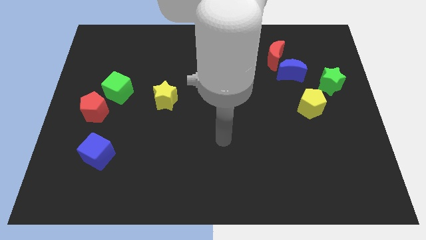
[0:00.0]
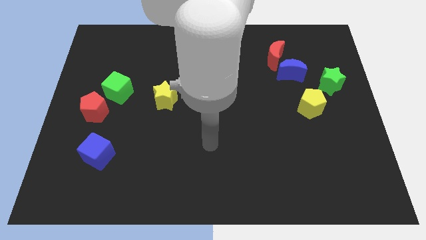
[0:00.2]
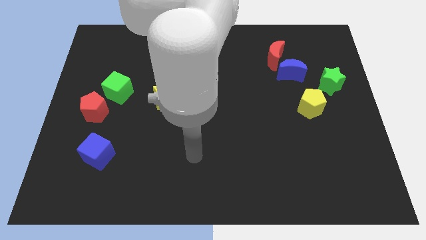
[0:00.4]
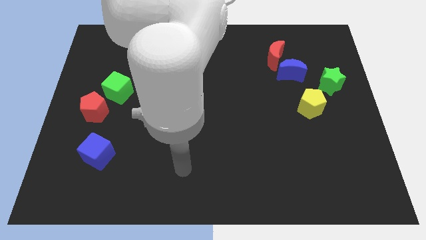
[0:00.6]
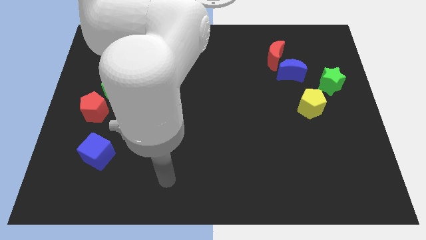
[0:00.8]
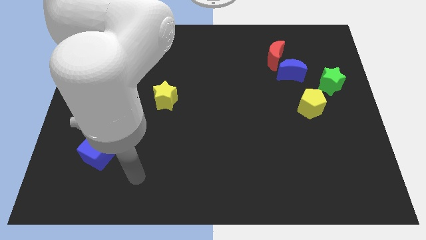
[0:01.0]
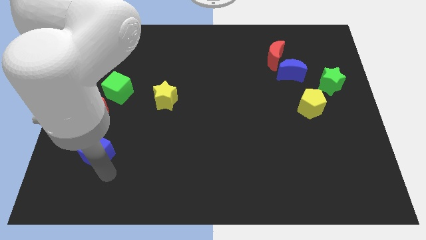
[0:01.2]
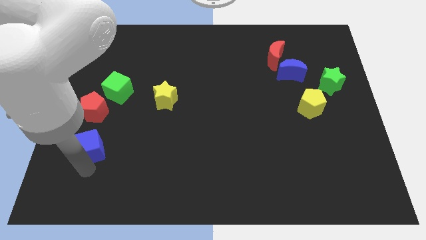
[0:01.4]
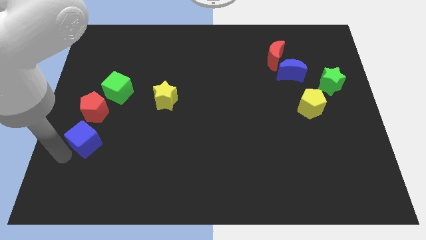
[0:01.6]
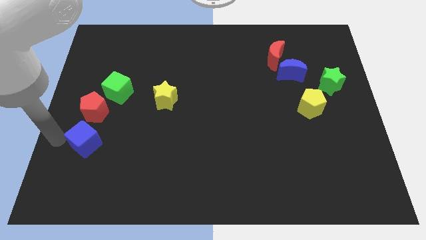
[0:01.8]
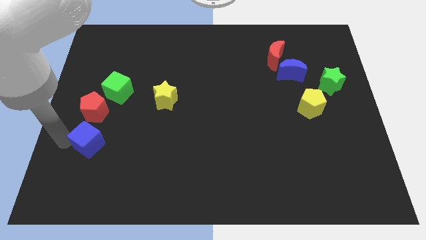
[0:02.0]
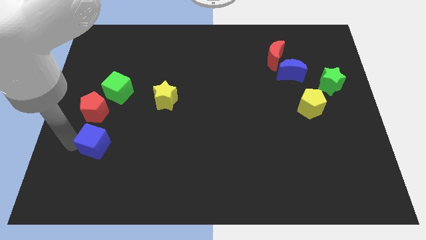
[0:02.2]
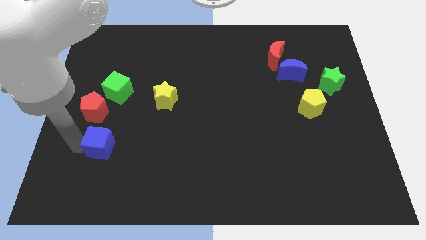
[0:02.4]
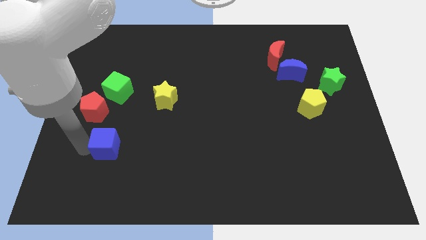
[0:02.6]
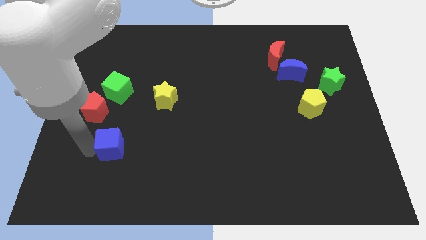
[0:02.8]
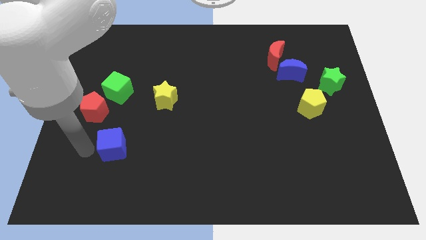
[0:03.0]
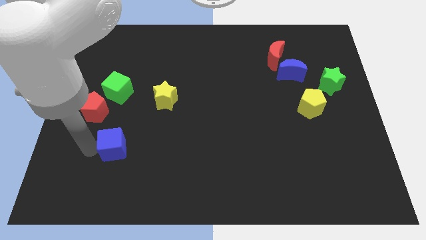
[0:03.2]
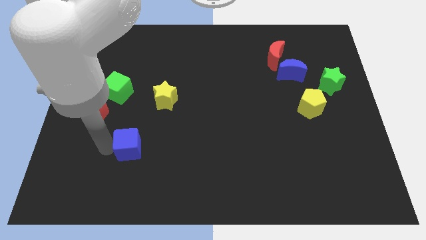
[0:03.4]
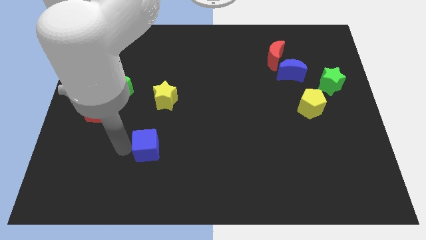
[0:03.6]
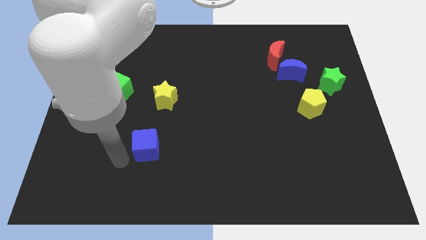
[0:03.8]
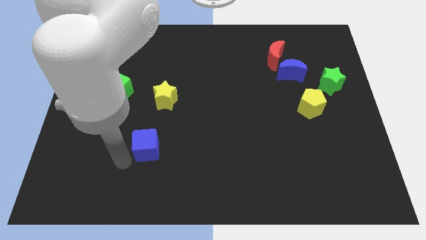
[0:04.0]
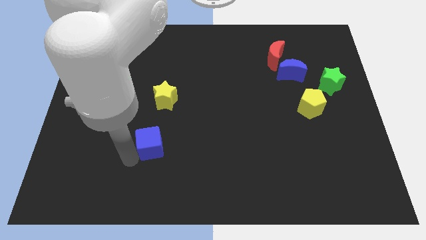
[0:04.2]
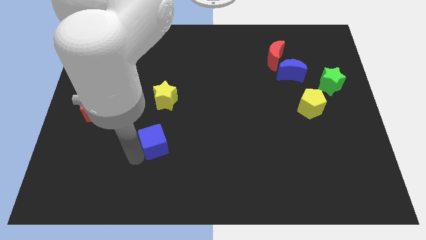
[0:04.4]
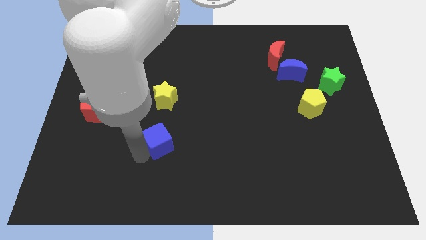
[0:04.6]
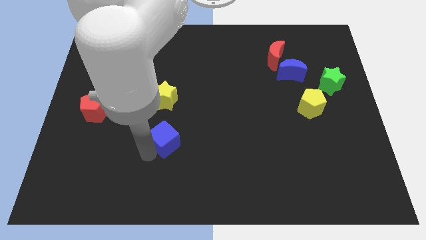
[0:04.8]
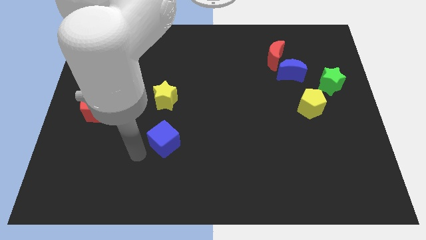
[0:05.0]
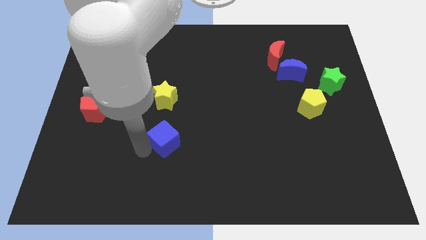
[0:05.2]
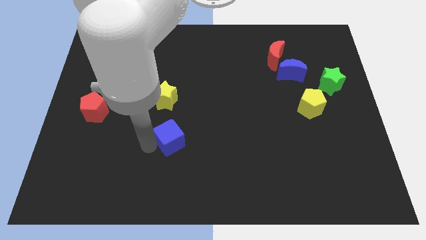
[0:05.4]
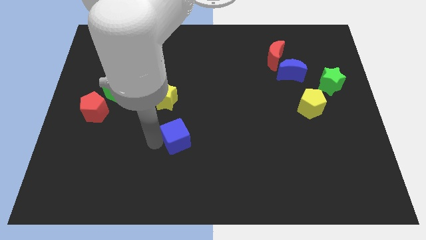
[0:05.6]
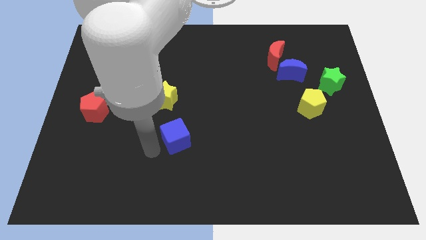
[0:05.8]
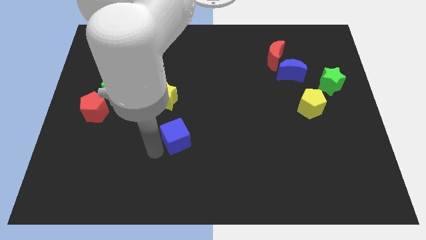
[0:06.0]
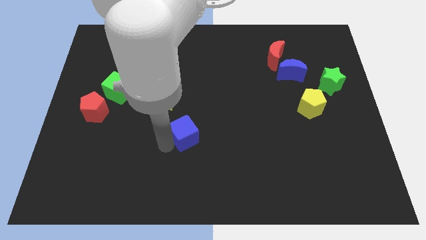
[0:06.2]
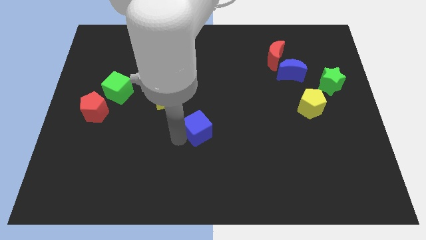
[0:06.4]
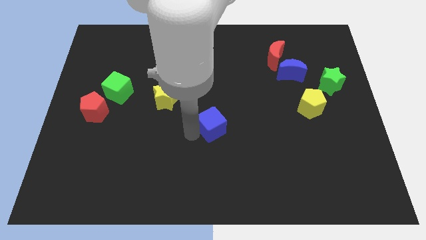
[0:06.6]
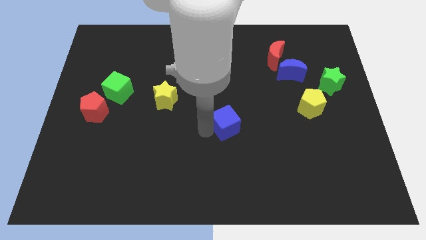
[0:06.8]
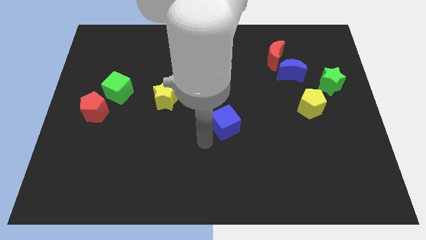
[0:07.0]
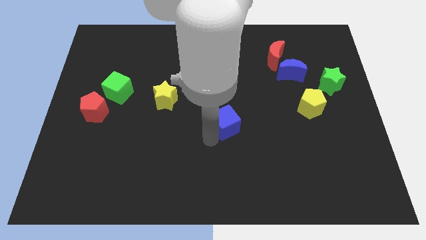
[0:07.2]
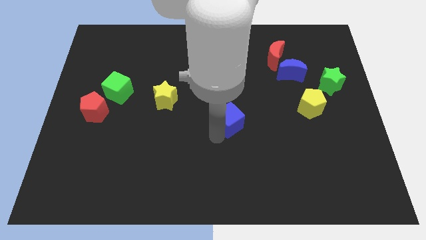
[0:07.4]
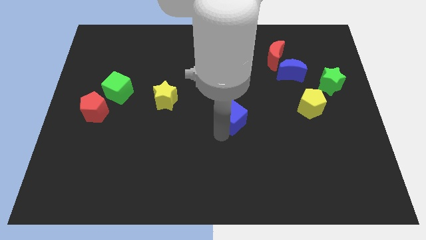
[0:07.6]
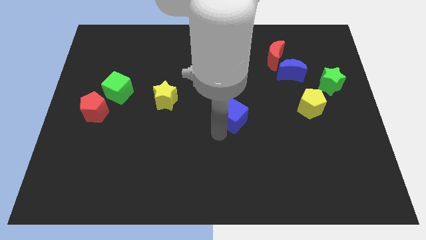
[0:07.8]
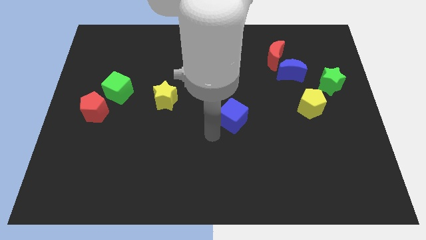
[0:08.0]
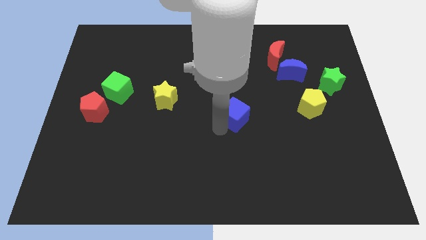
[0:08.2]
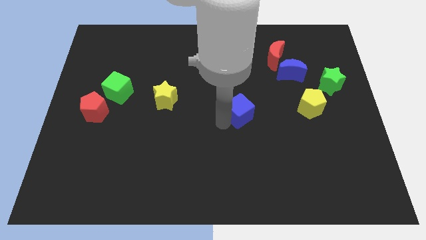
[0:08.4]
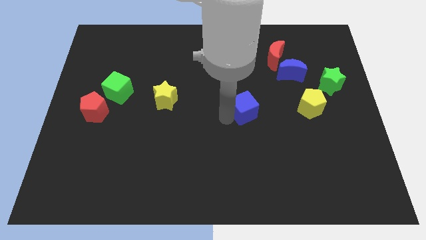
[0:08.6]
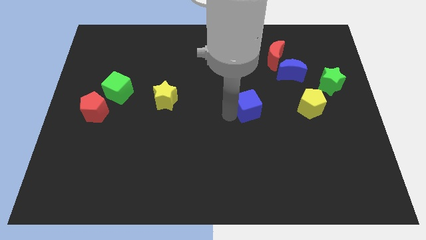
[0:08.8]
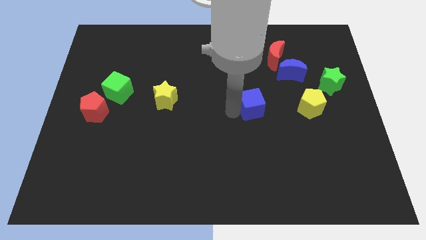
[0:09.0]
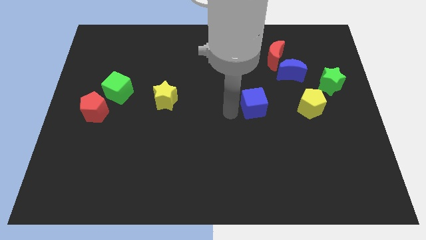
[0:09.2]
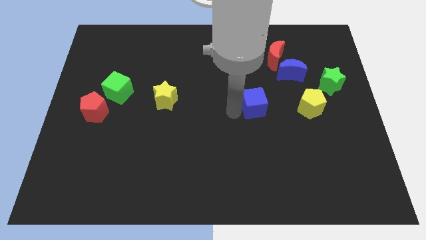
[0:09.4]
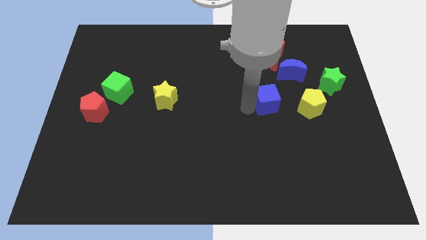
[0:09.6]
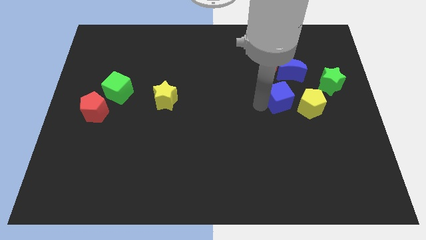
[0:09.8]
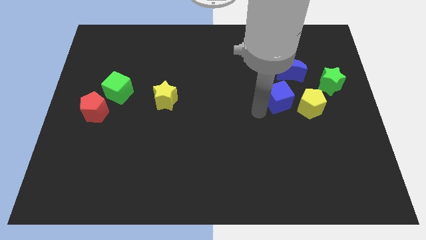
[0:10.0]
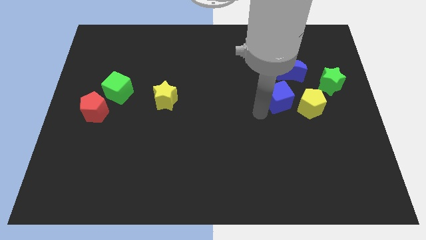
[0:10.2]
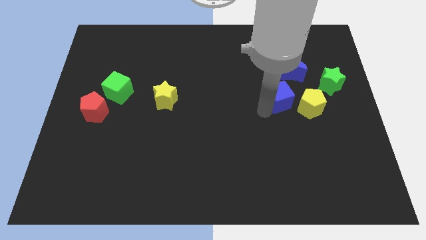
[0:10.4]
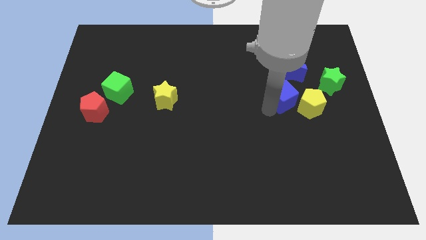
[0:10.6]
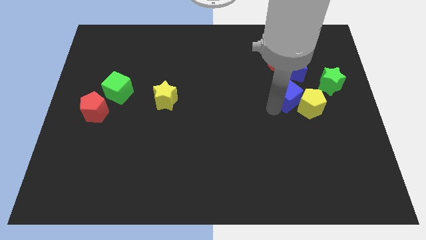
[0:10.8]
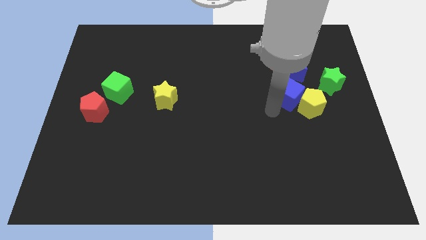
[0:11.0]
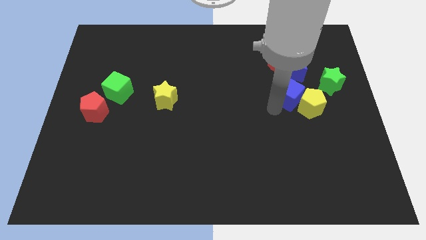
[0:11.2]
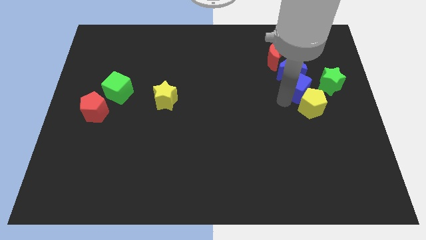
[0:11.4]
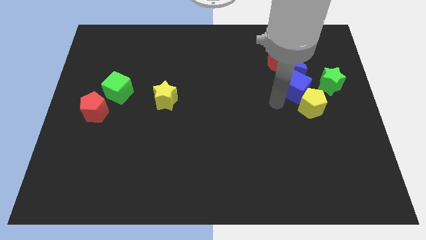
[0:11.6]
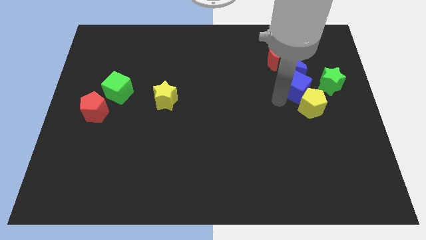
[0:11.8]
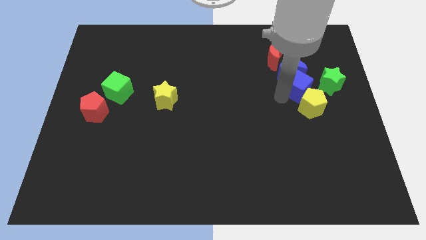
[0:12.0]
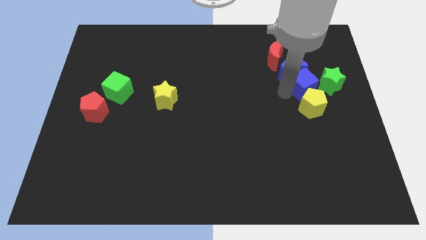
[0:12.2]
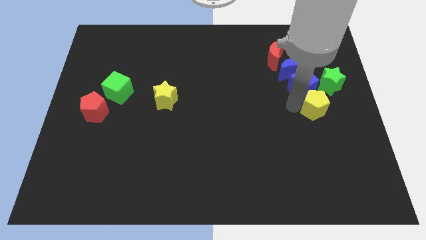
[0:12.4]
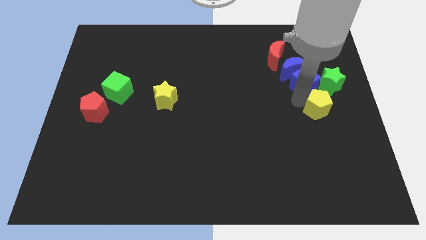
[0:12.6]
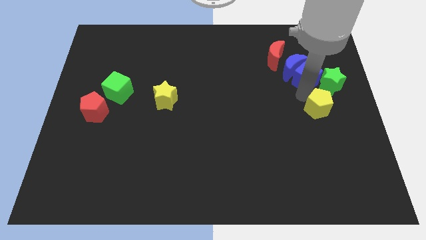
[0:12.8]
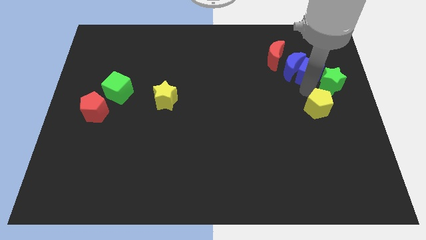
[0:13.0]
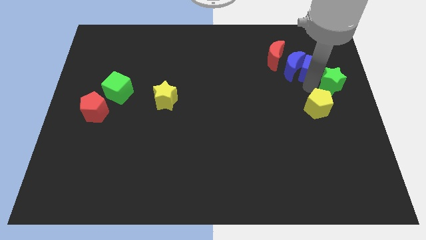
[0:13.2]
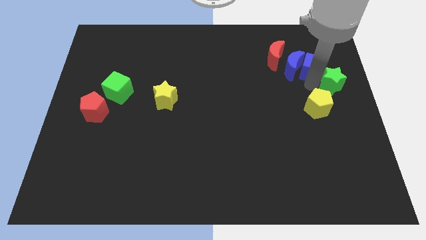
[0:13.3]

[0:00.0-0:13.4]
put the blue cube just right of the red moon

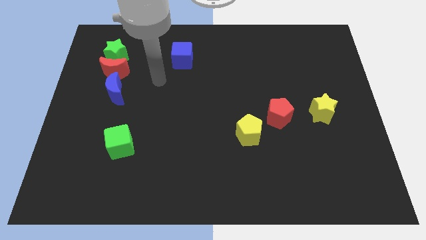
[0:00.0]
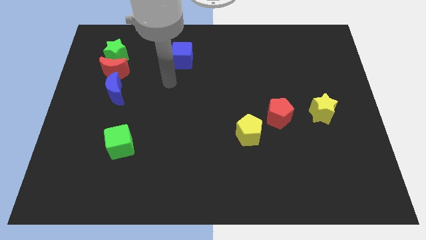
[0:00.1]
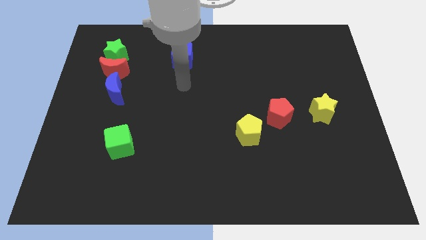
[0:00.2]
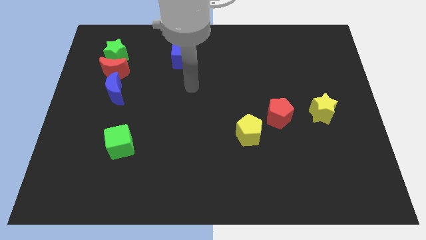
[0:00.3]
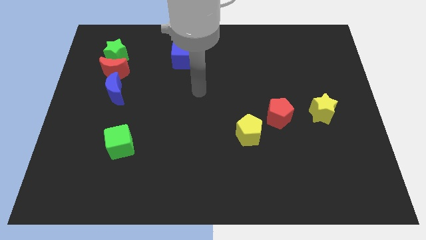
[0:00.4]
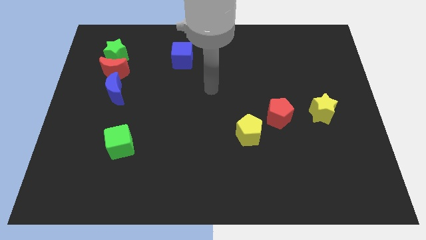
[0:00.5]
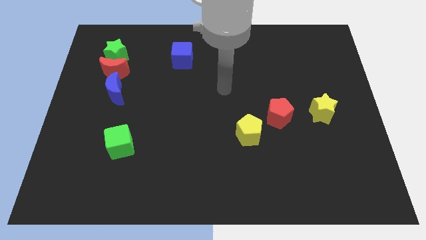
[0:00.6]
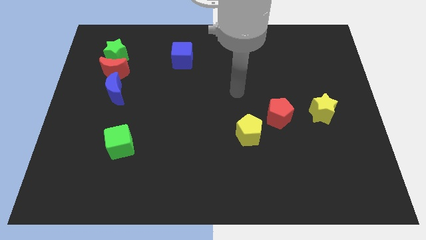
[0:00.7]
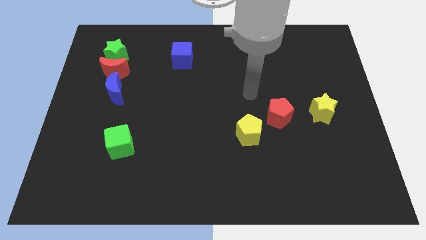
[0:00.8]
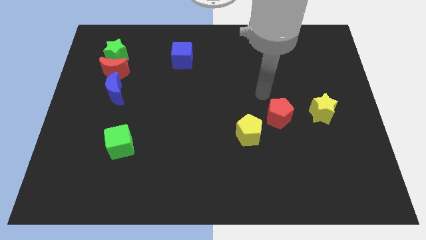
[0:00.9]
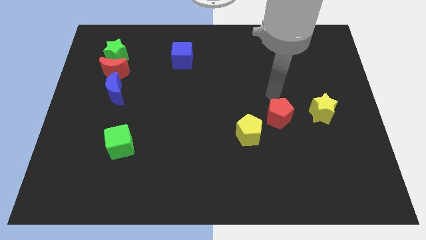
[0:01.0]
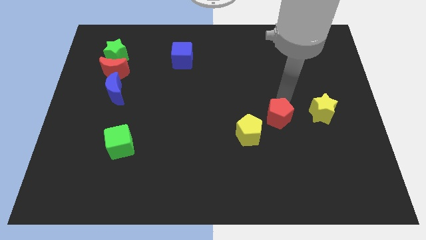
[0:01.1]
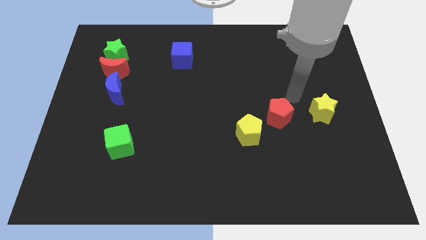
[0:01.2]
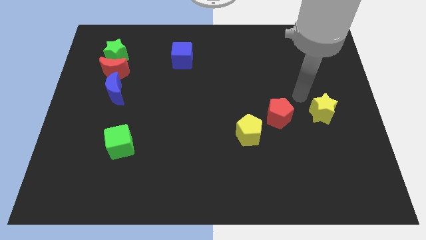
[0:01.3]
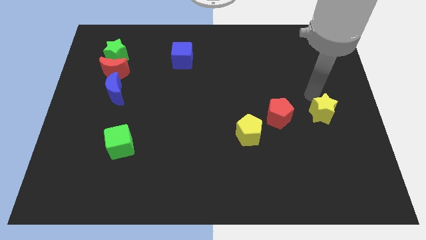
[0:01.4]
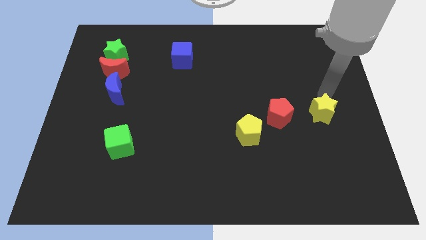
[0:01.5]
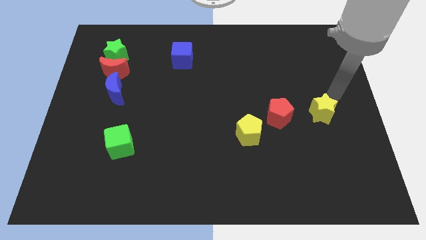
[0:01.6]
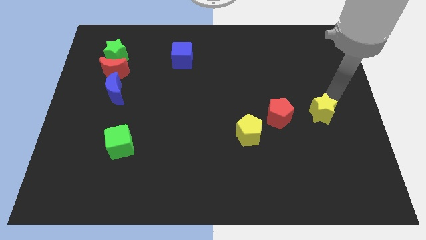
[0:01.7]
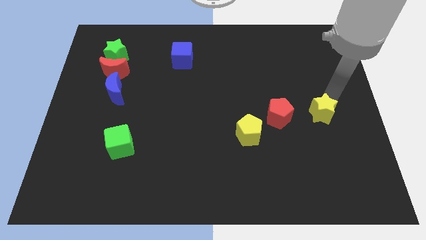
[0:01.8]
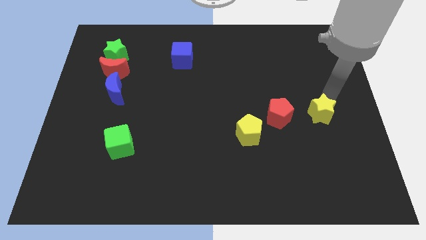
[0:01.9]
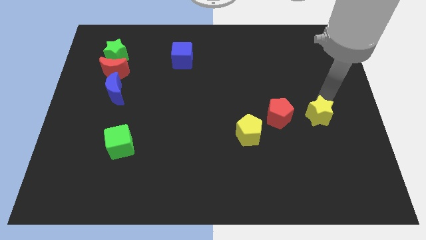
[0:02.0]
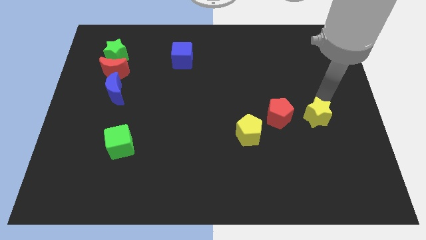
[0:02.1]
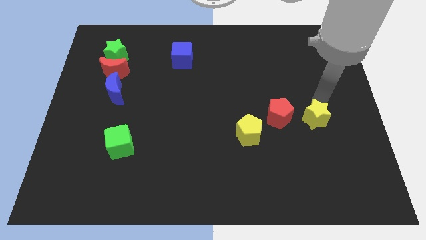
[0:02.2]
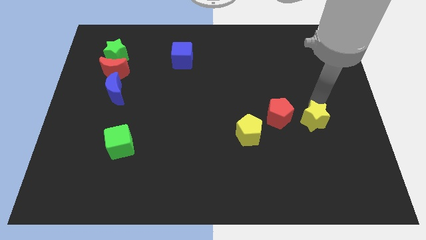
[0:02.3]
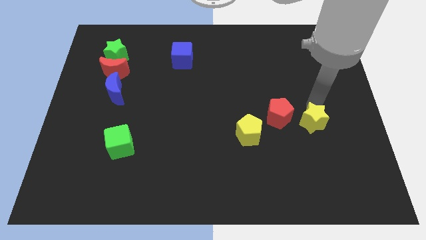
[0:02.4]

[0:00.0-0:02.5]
put the yellow star diagonally down and to the right of the red pentagon
